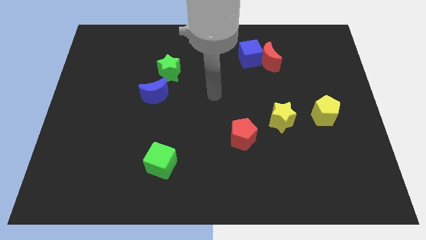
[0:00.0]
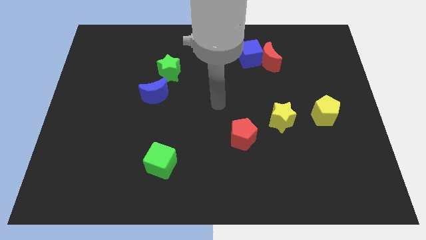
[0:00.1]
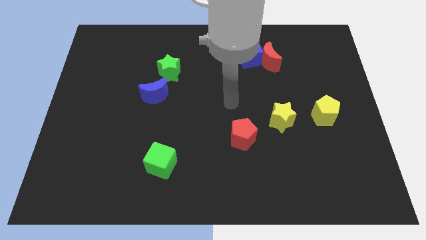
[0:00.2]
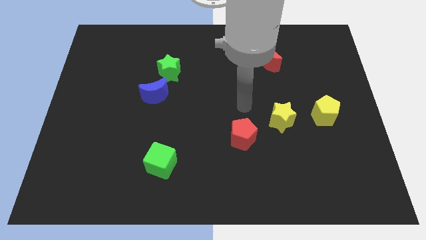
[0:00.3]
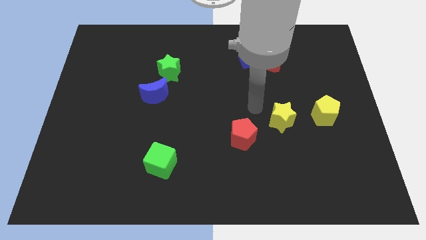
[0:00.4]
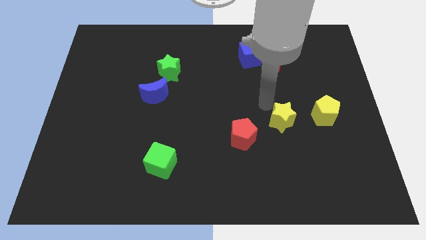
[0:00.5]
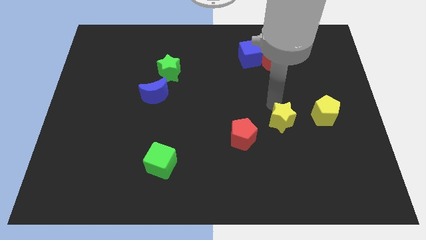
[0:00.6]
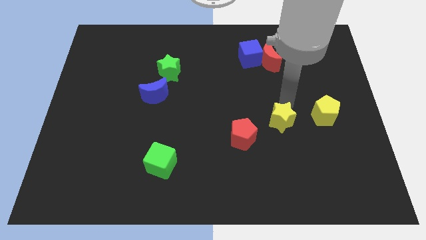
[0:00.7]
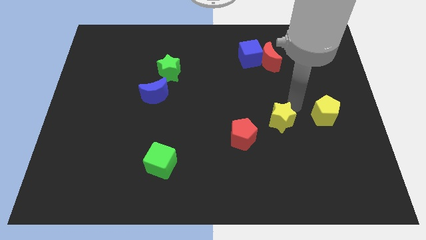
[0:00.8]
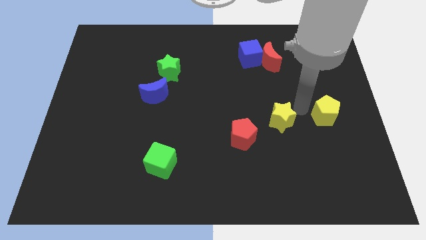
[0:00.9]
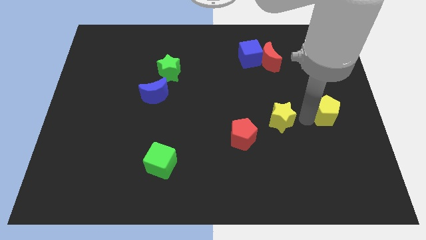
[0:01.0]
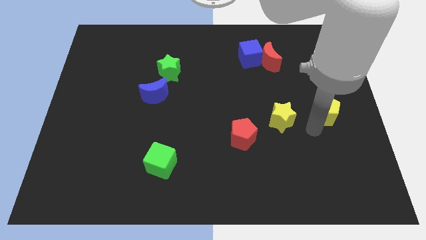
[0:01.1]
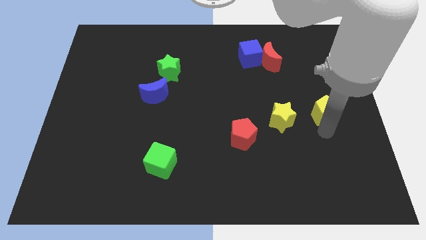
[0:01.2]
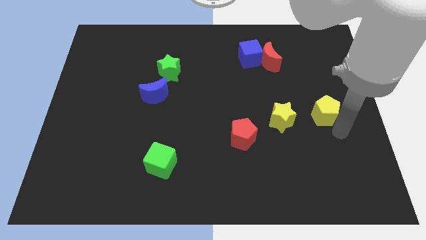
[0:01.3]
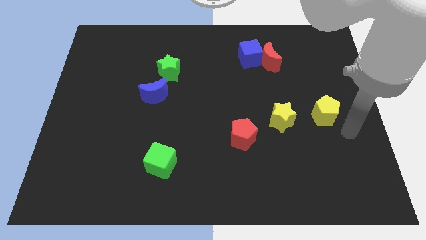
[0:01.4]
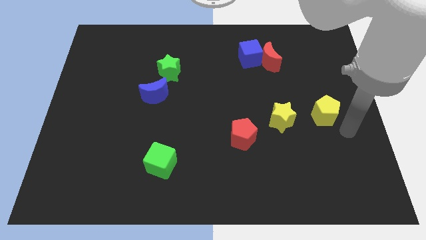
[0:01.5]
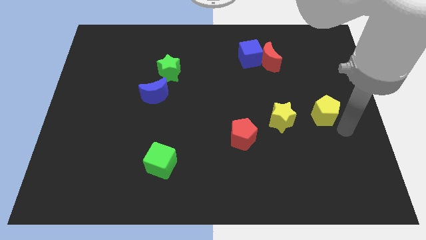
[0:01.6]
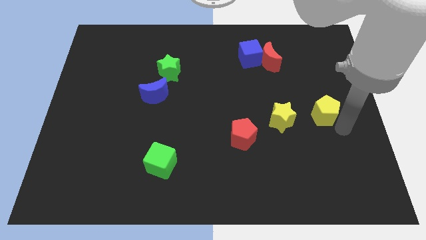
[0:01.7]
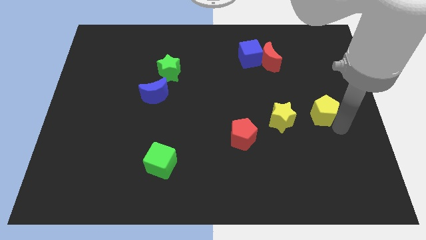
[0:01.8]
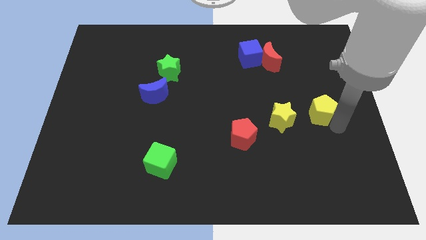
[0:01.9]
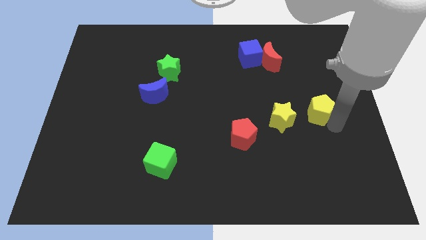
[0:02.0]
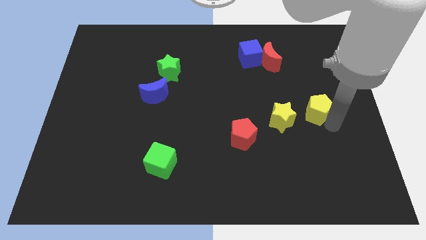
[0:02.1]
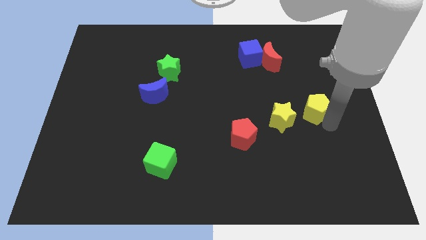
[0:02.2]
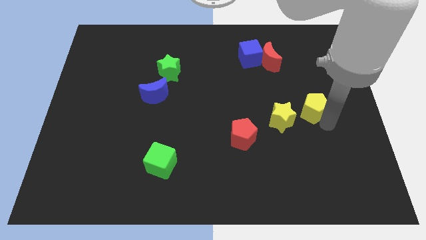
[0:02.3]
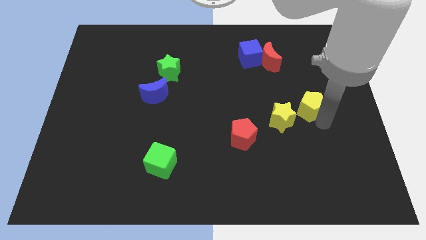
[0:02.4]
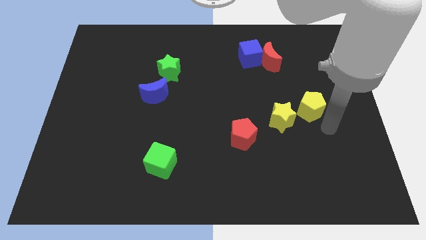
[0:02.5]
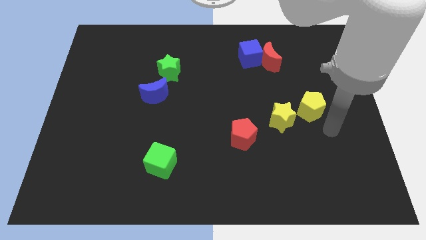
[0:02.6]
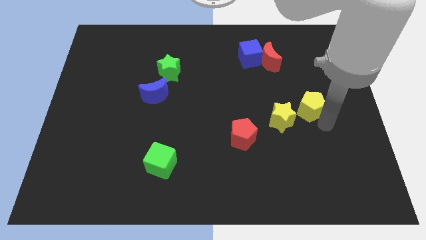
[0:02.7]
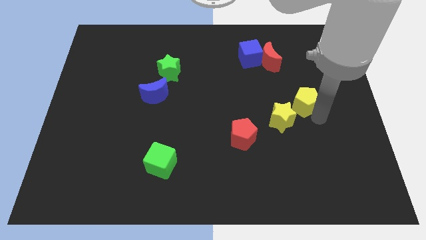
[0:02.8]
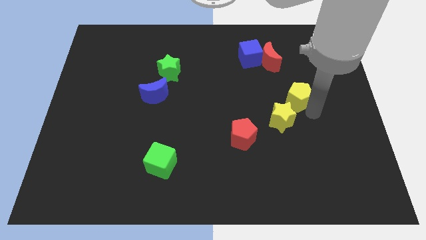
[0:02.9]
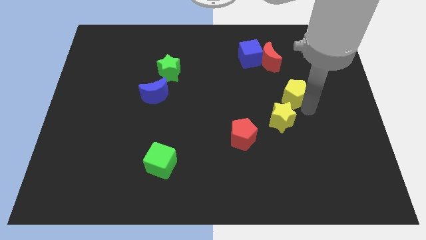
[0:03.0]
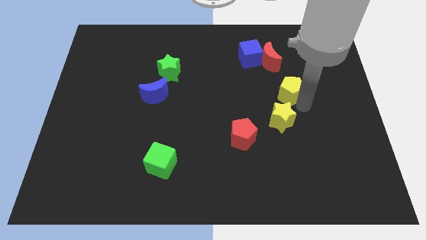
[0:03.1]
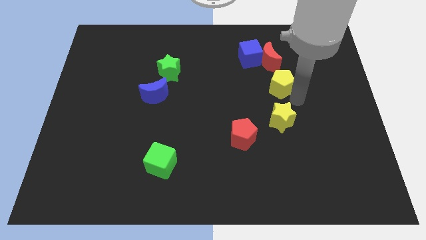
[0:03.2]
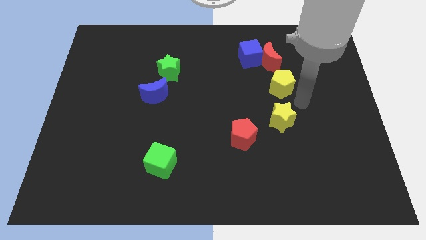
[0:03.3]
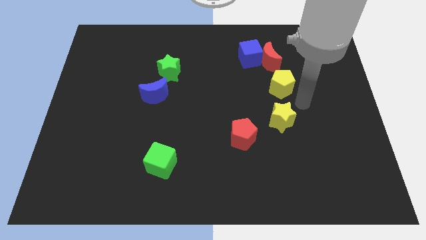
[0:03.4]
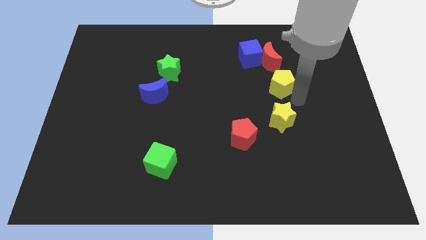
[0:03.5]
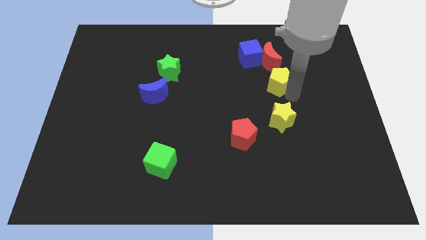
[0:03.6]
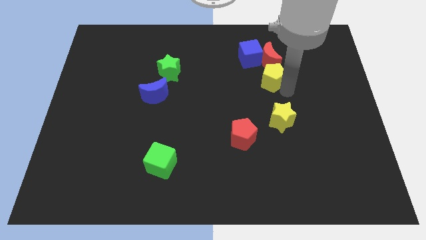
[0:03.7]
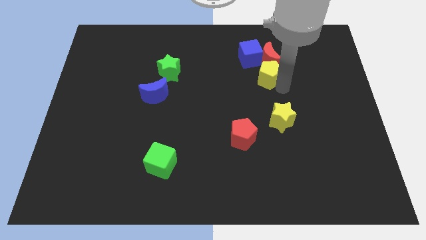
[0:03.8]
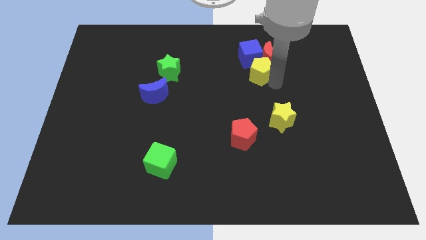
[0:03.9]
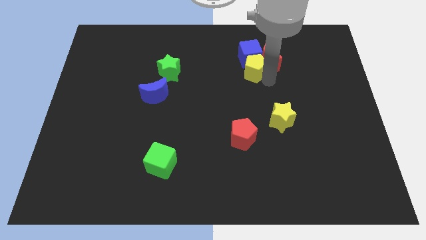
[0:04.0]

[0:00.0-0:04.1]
push the yellow pentagon close to the blue cube

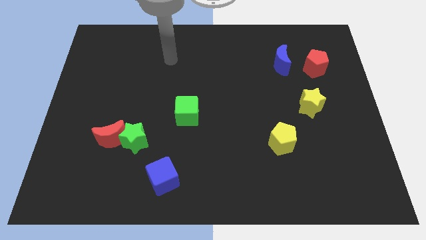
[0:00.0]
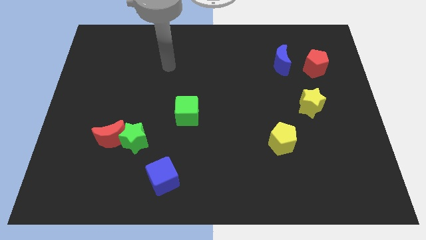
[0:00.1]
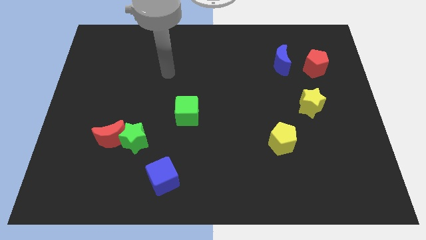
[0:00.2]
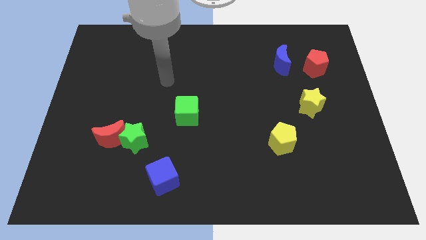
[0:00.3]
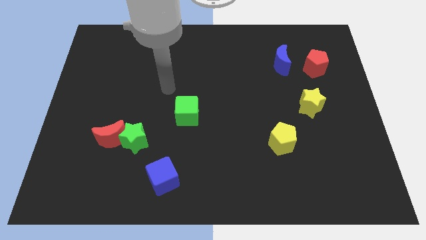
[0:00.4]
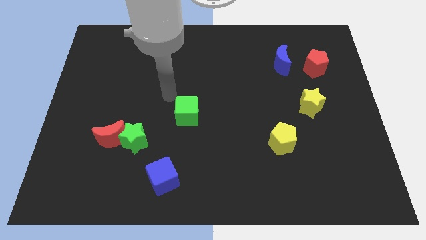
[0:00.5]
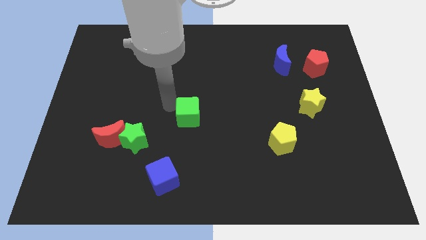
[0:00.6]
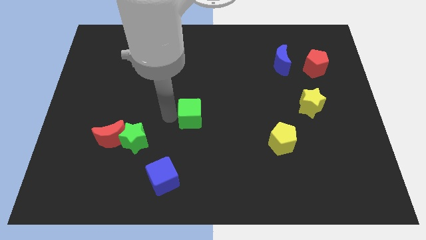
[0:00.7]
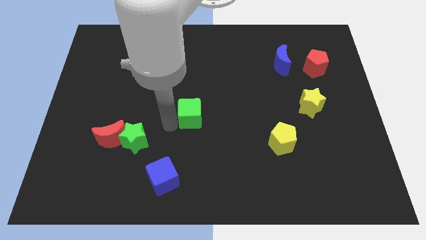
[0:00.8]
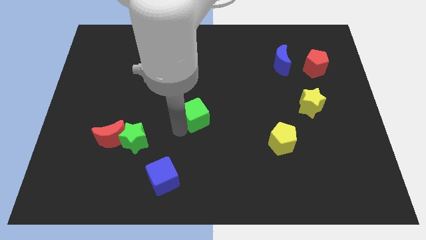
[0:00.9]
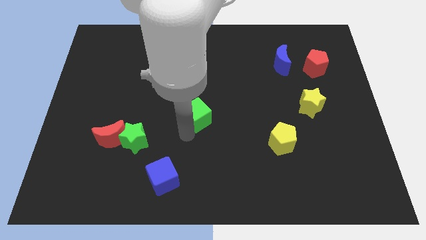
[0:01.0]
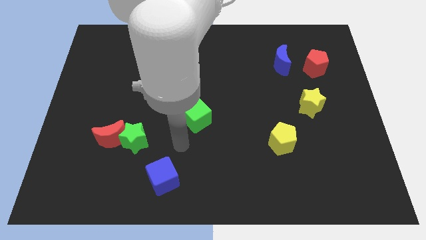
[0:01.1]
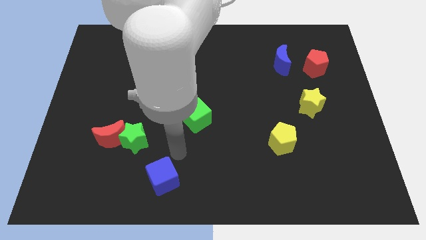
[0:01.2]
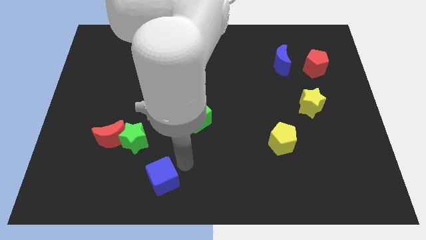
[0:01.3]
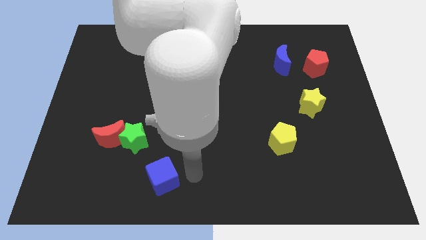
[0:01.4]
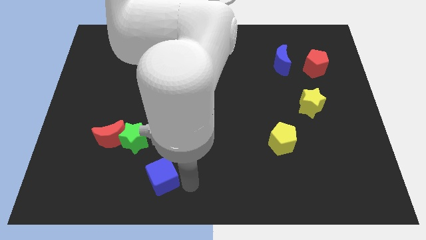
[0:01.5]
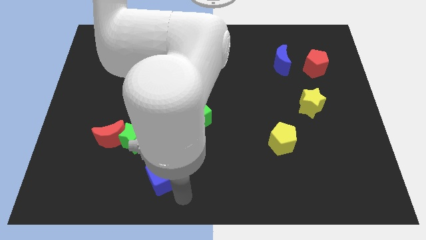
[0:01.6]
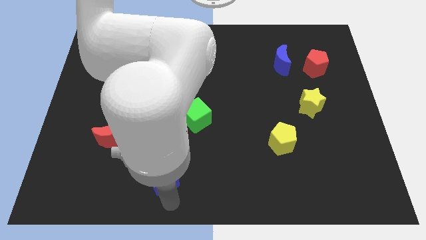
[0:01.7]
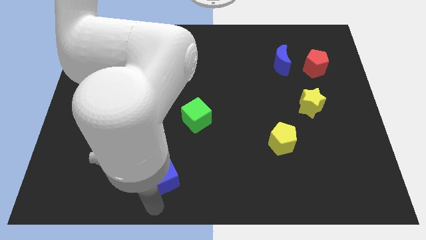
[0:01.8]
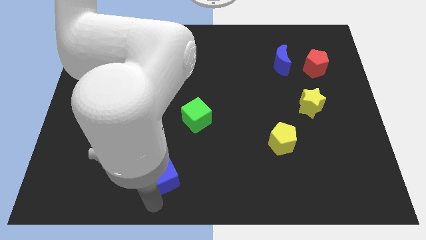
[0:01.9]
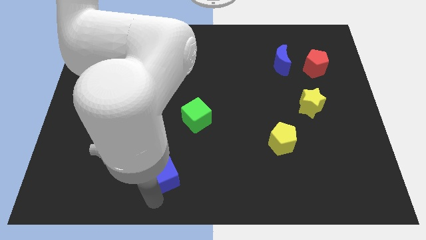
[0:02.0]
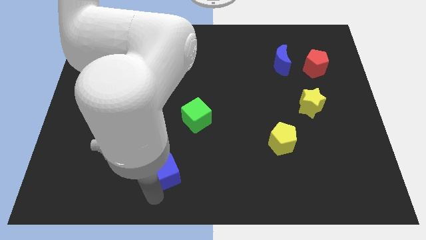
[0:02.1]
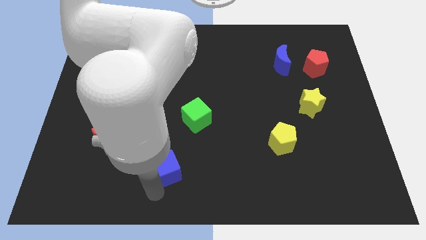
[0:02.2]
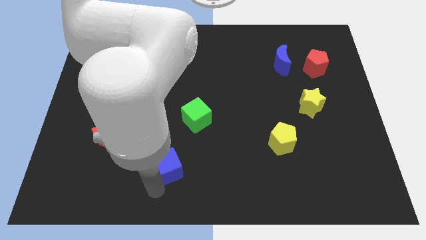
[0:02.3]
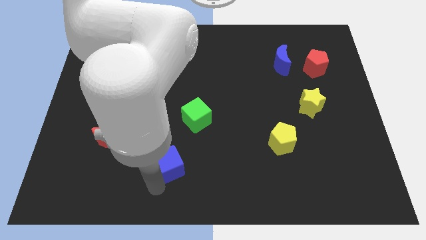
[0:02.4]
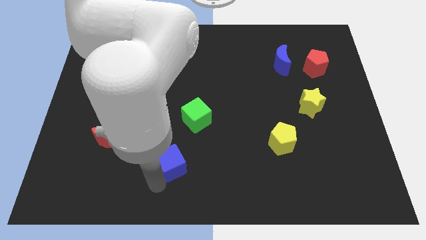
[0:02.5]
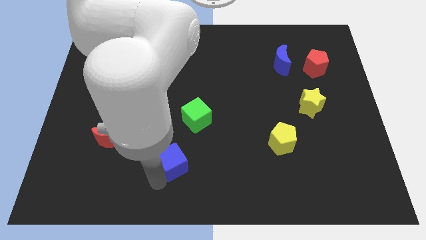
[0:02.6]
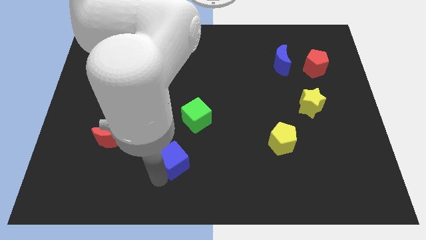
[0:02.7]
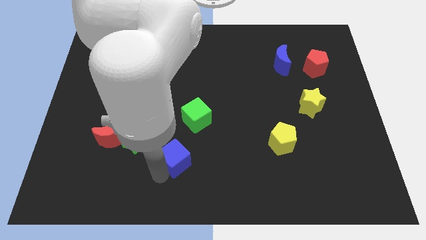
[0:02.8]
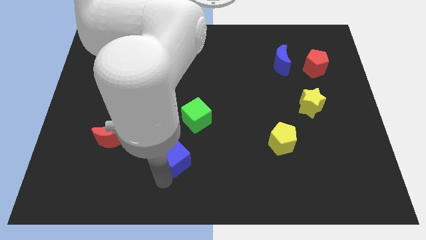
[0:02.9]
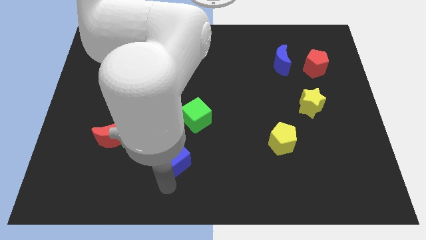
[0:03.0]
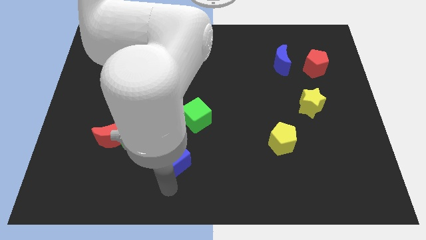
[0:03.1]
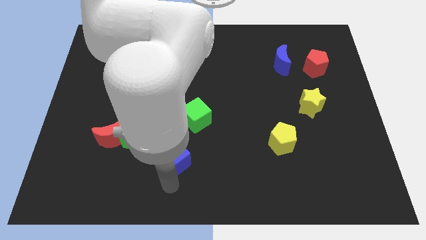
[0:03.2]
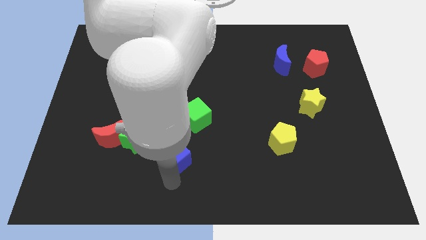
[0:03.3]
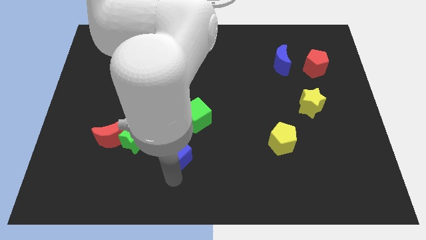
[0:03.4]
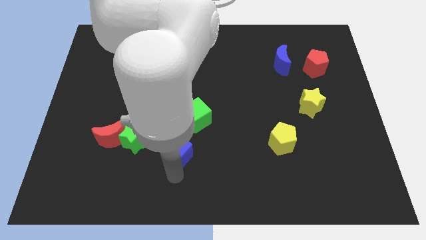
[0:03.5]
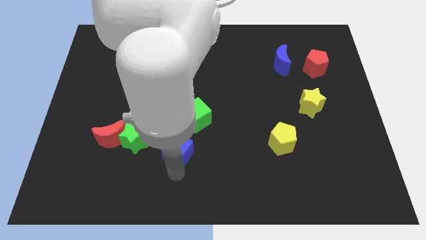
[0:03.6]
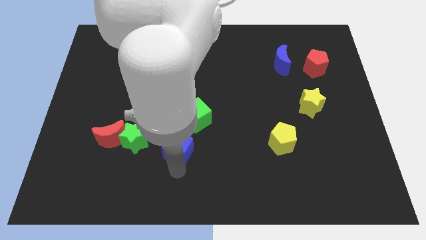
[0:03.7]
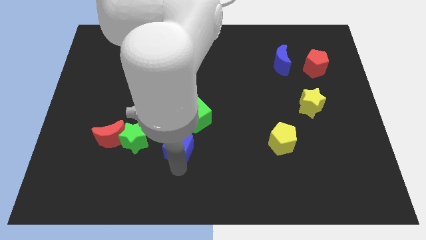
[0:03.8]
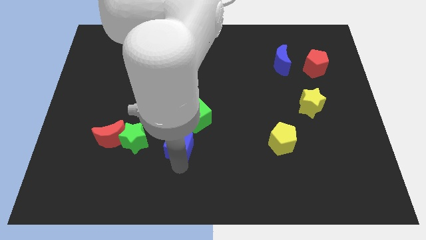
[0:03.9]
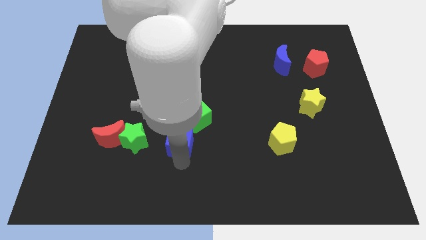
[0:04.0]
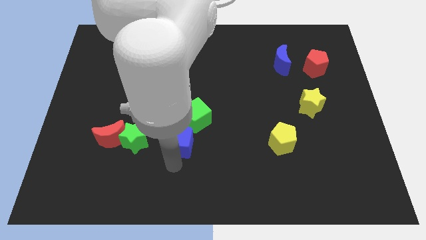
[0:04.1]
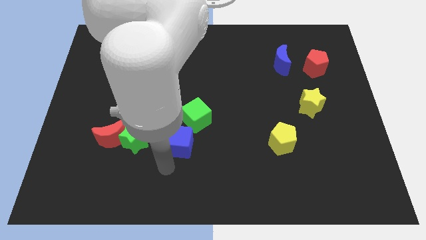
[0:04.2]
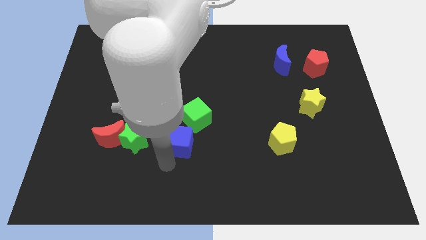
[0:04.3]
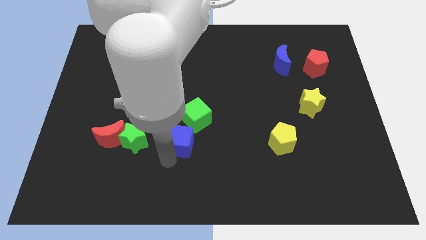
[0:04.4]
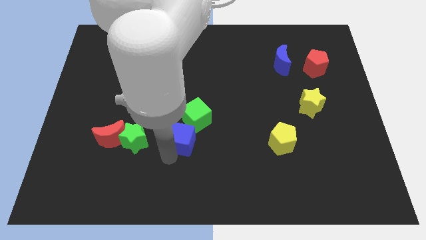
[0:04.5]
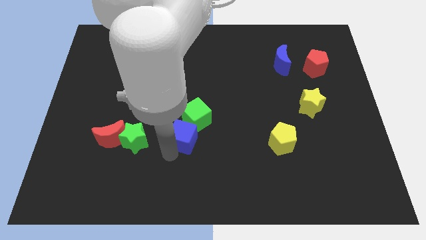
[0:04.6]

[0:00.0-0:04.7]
put the blue cube next to the green cube
